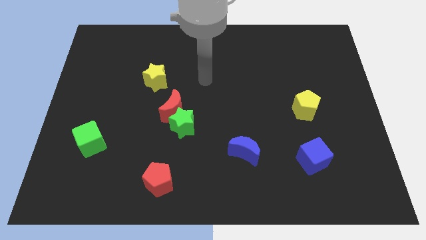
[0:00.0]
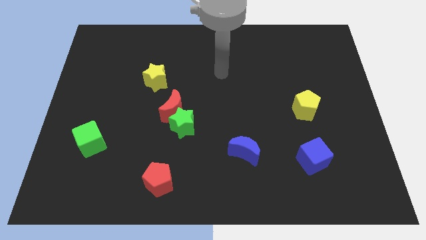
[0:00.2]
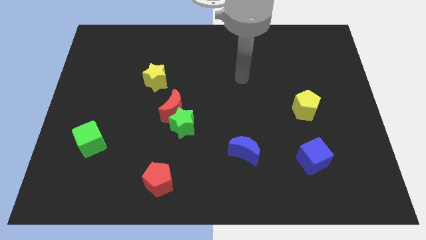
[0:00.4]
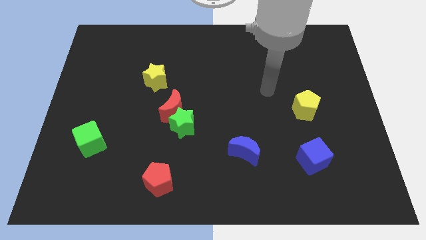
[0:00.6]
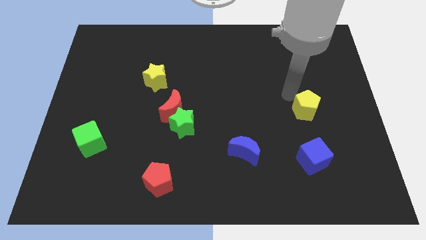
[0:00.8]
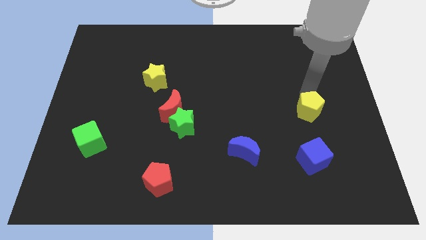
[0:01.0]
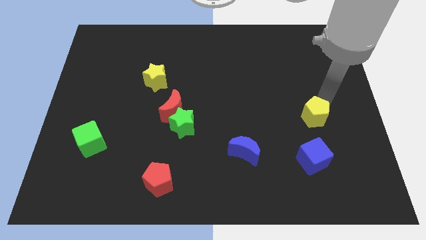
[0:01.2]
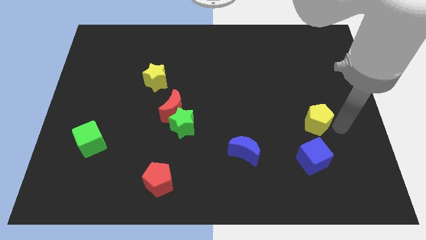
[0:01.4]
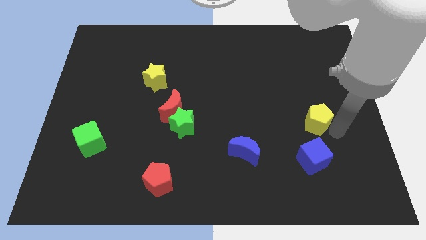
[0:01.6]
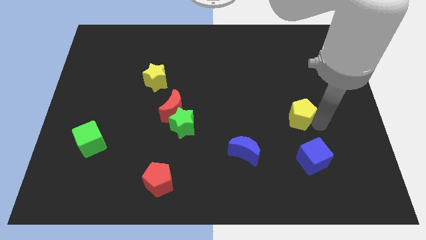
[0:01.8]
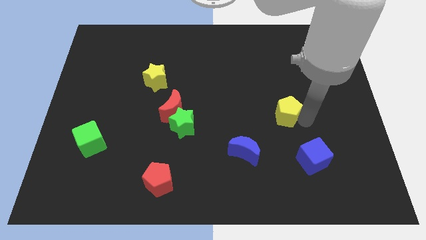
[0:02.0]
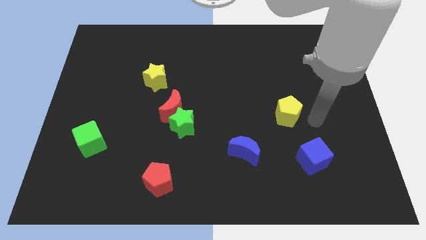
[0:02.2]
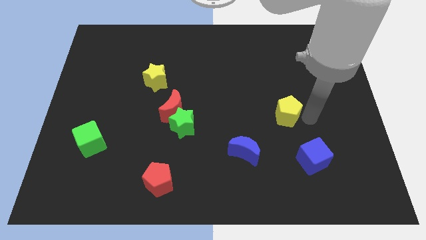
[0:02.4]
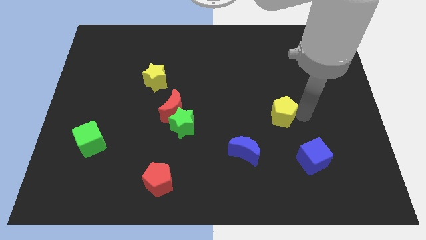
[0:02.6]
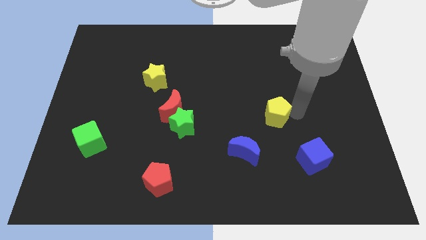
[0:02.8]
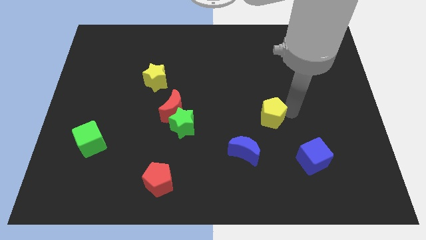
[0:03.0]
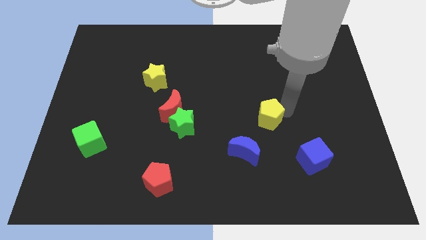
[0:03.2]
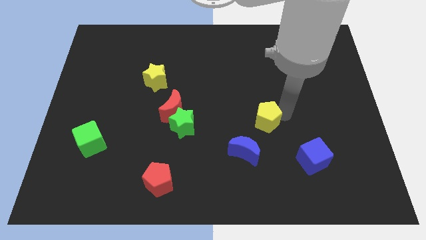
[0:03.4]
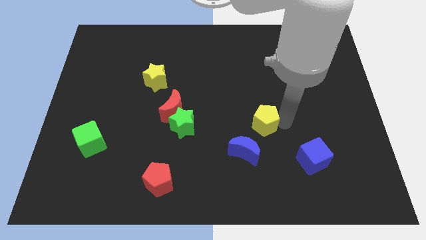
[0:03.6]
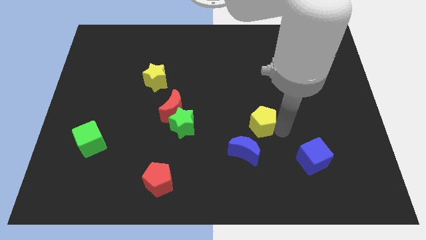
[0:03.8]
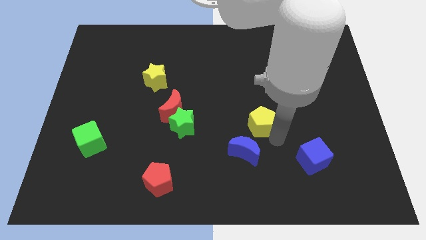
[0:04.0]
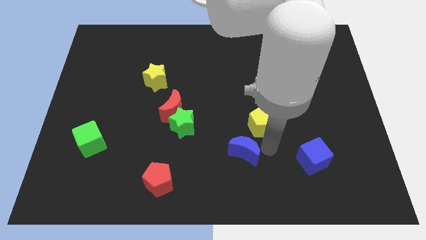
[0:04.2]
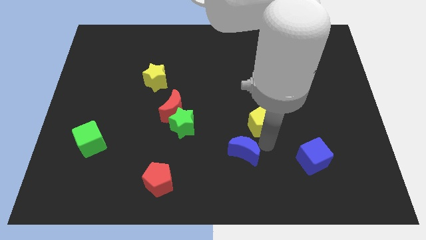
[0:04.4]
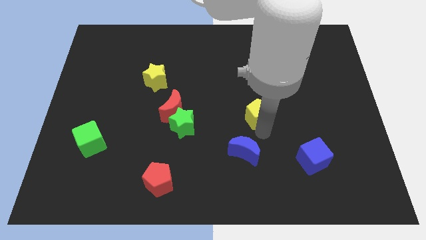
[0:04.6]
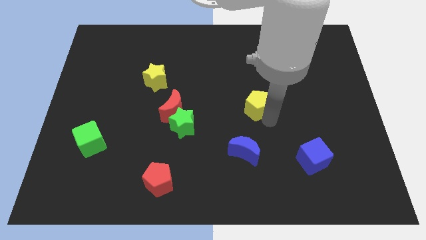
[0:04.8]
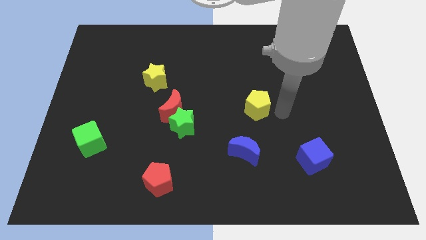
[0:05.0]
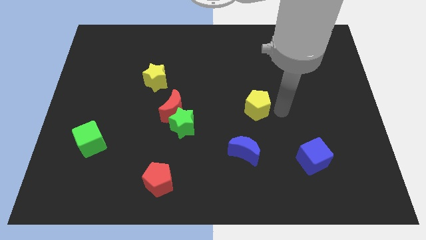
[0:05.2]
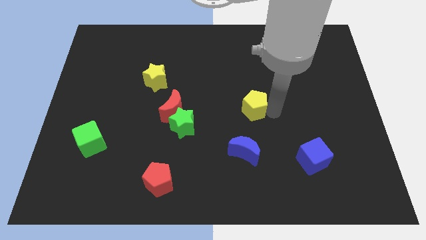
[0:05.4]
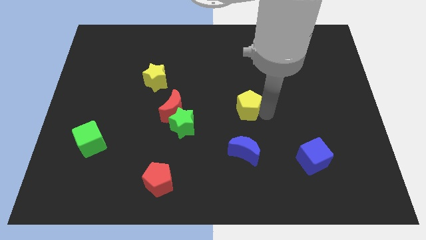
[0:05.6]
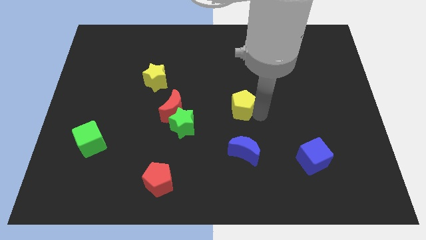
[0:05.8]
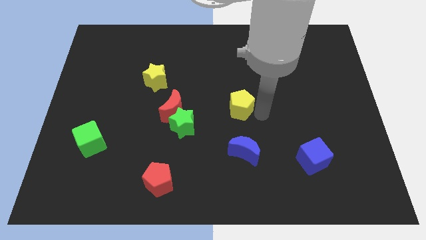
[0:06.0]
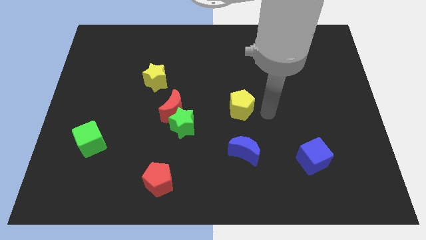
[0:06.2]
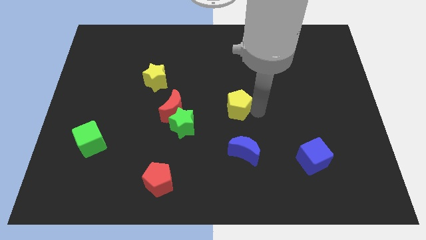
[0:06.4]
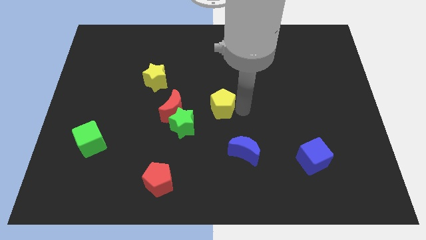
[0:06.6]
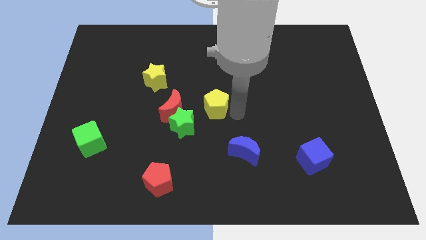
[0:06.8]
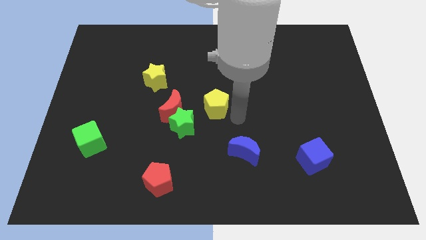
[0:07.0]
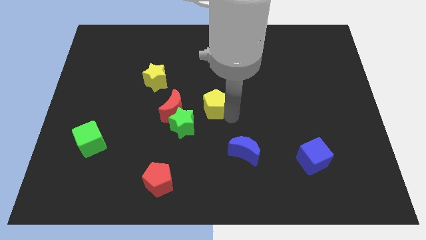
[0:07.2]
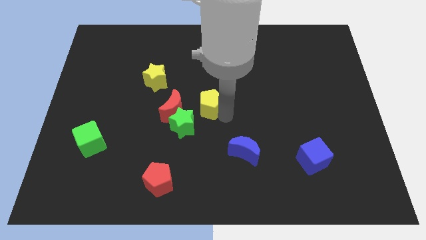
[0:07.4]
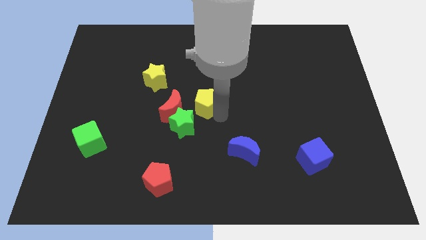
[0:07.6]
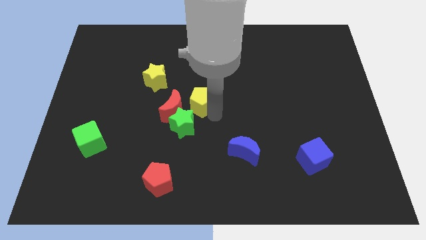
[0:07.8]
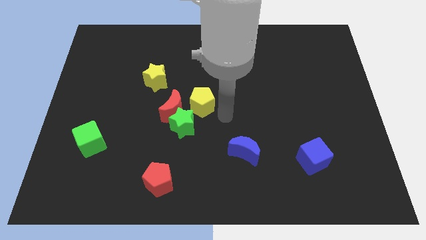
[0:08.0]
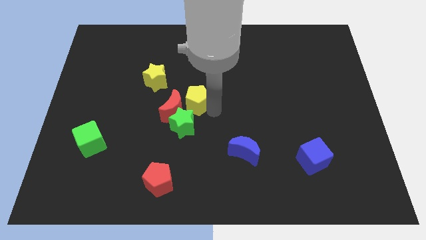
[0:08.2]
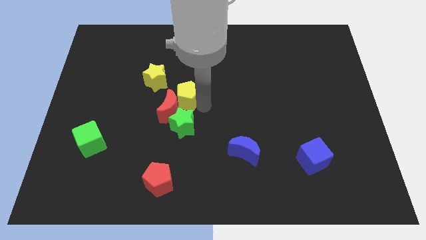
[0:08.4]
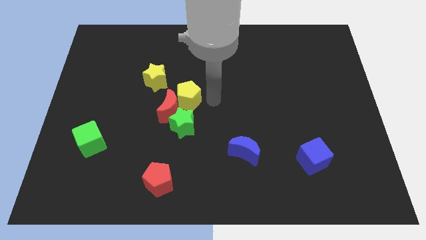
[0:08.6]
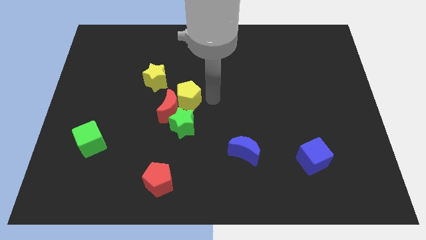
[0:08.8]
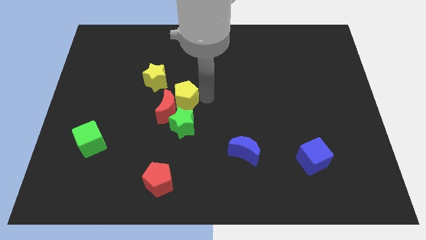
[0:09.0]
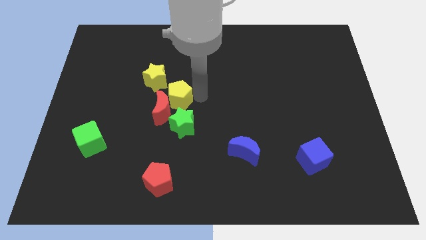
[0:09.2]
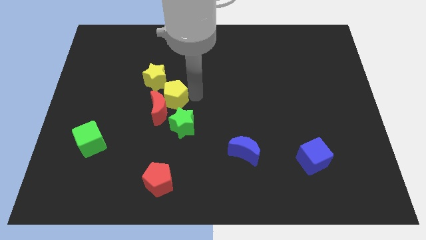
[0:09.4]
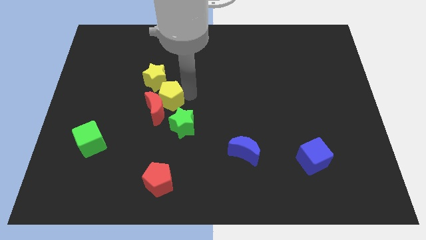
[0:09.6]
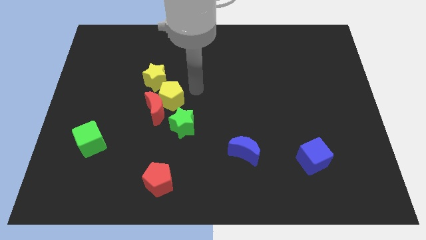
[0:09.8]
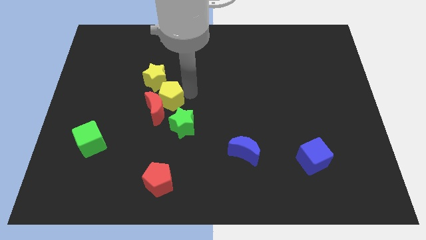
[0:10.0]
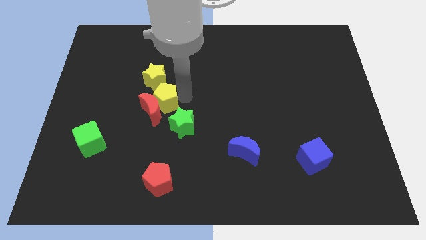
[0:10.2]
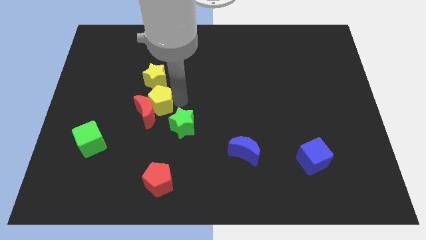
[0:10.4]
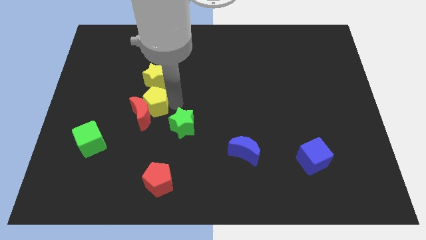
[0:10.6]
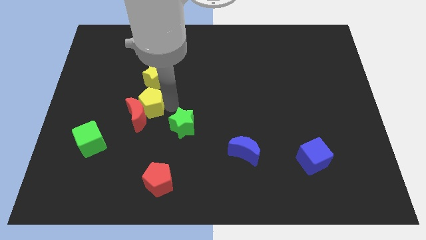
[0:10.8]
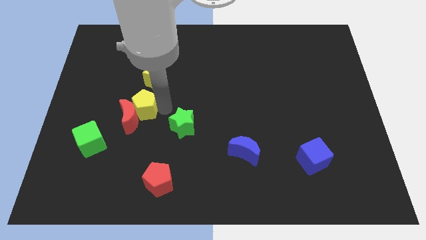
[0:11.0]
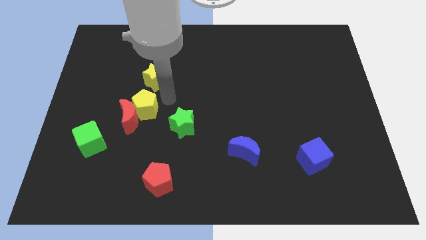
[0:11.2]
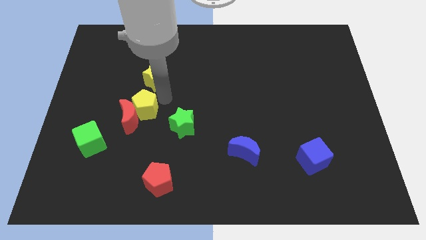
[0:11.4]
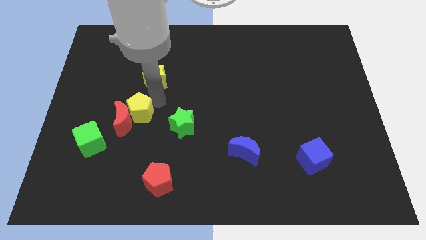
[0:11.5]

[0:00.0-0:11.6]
push the yellow pentagon to the top right of the green cube

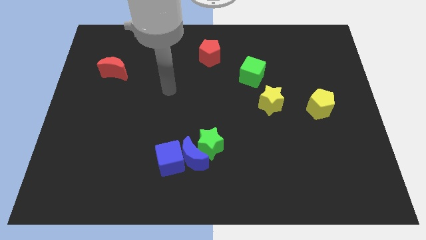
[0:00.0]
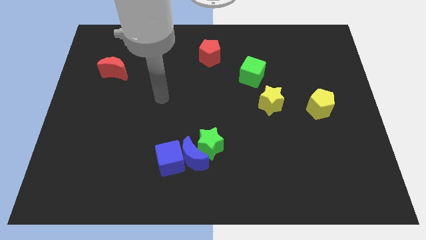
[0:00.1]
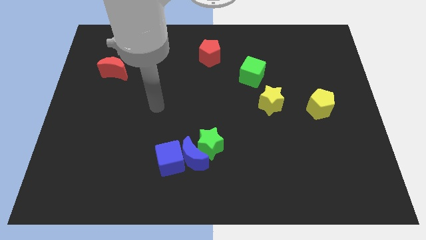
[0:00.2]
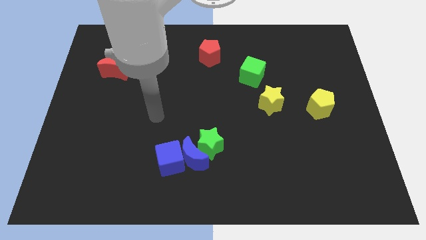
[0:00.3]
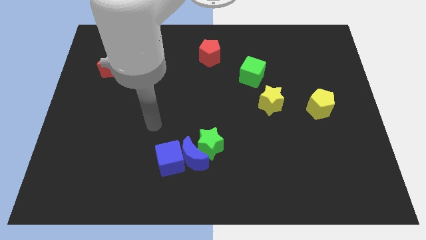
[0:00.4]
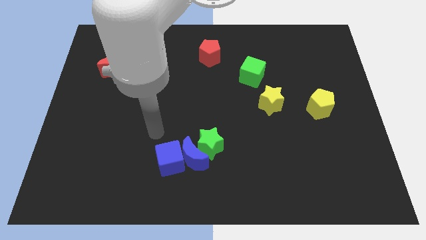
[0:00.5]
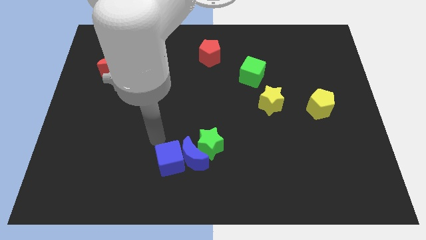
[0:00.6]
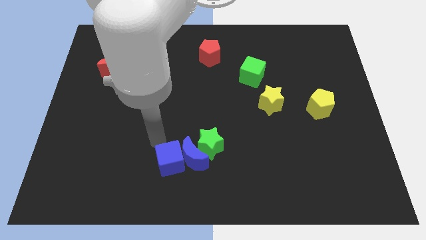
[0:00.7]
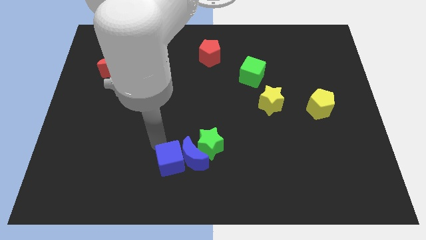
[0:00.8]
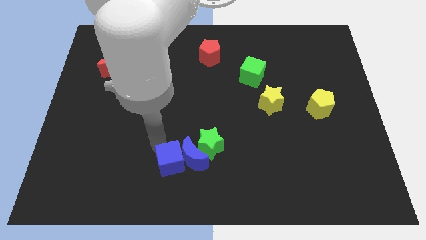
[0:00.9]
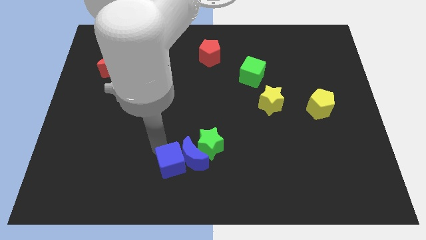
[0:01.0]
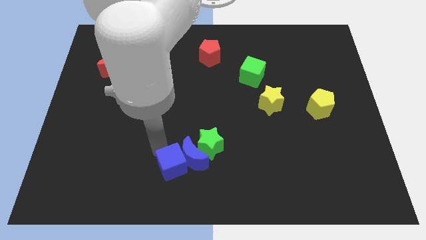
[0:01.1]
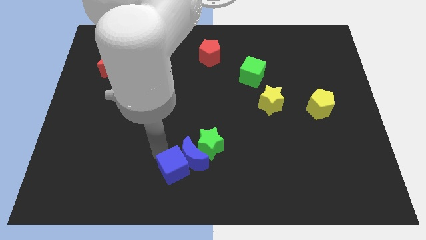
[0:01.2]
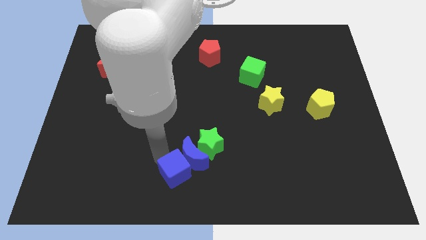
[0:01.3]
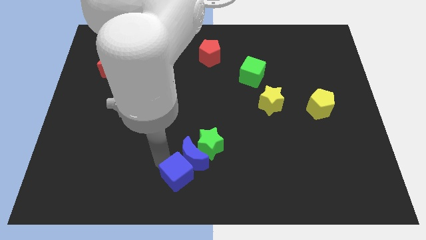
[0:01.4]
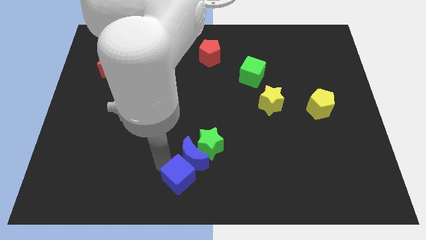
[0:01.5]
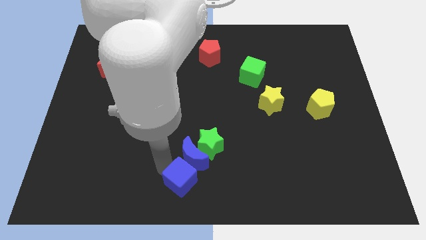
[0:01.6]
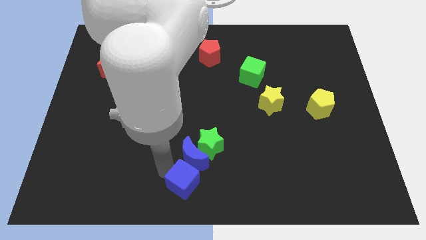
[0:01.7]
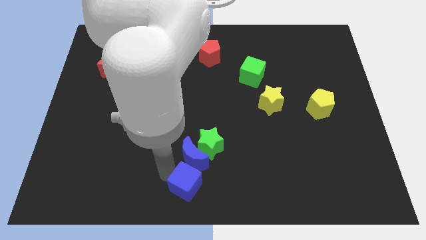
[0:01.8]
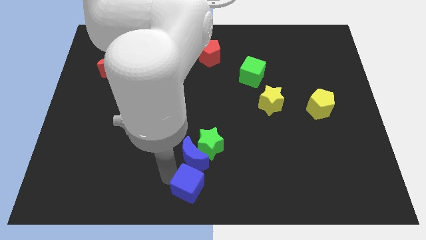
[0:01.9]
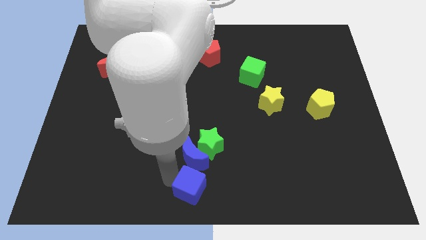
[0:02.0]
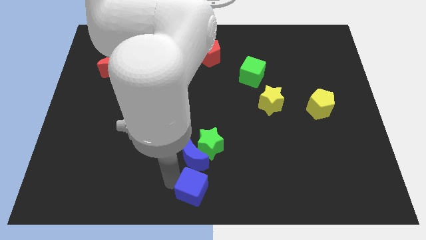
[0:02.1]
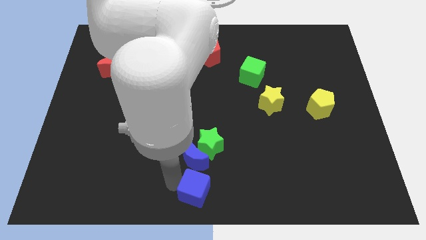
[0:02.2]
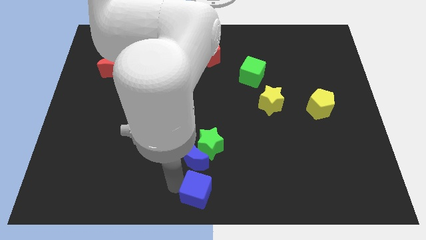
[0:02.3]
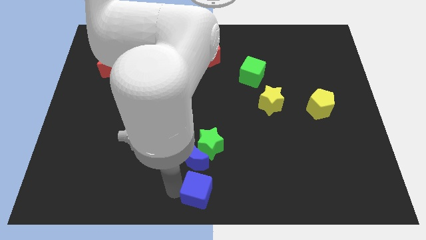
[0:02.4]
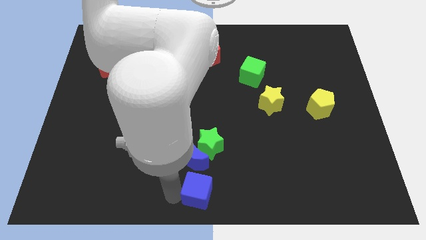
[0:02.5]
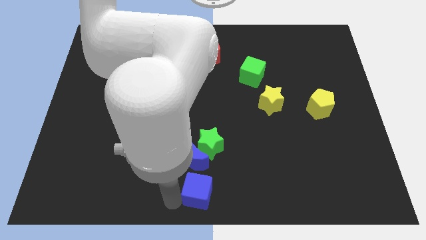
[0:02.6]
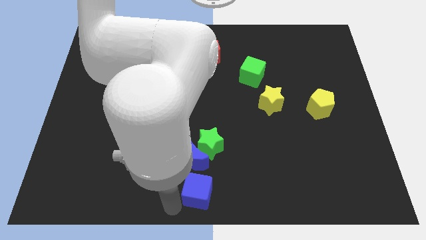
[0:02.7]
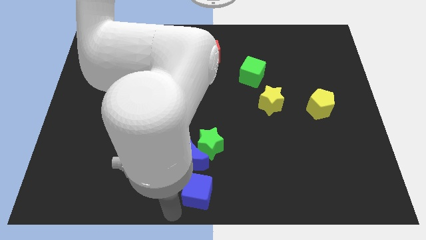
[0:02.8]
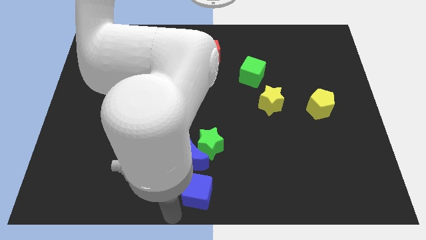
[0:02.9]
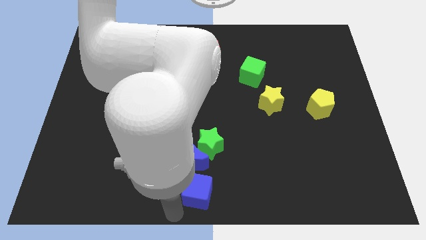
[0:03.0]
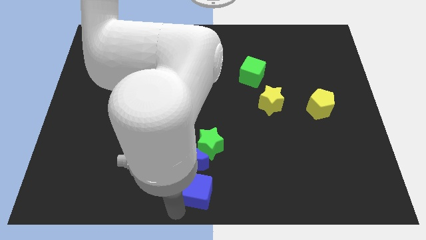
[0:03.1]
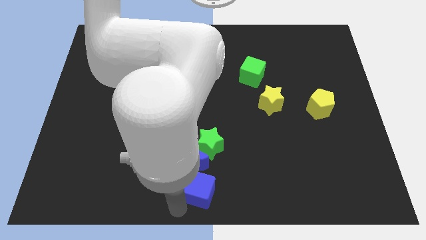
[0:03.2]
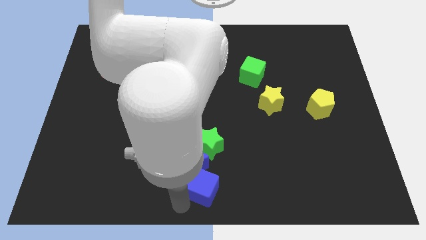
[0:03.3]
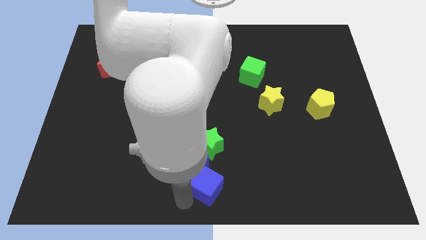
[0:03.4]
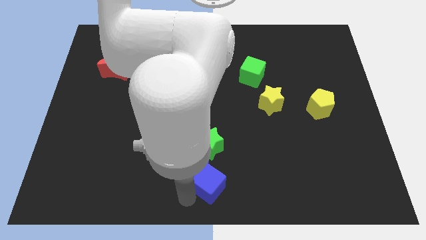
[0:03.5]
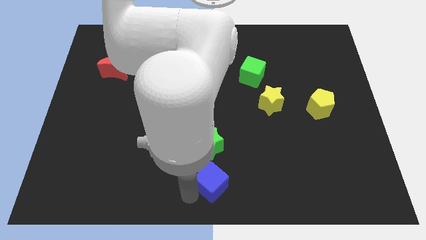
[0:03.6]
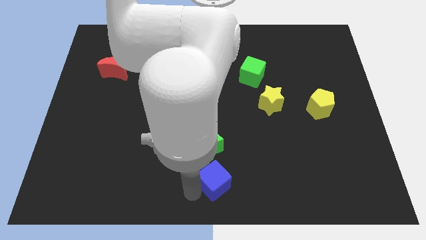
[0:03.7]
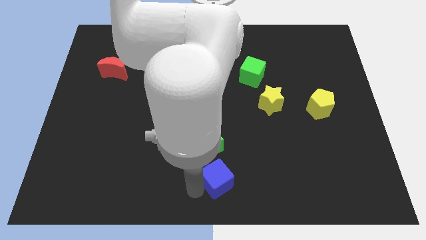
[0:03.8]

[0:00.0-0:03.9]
push the blue cube diagonally down and to the right of the green star
